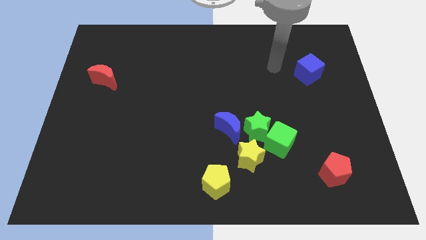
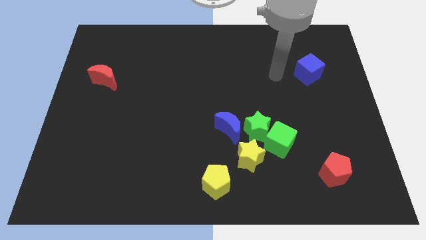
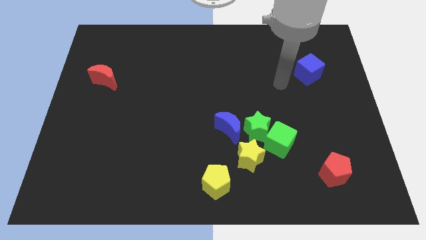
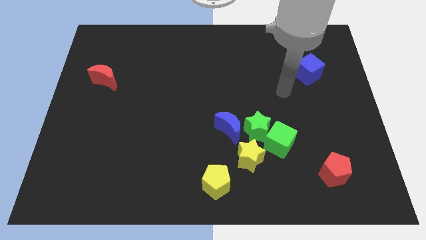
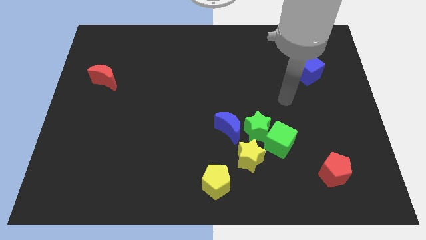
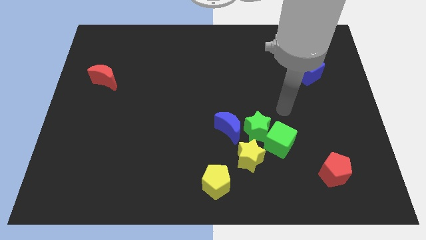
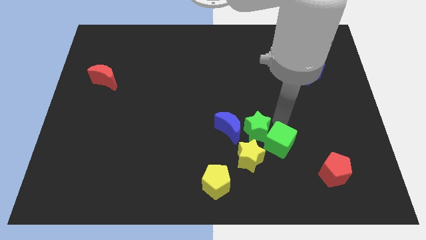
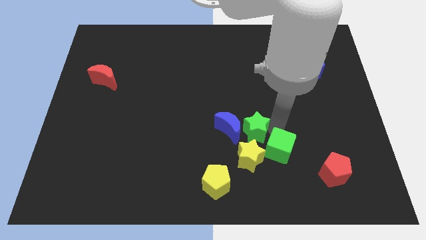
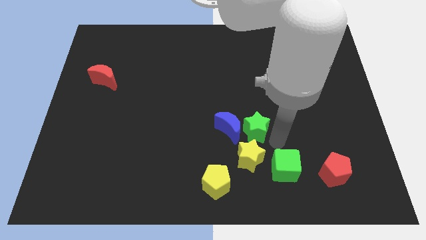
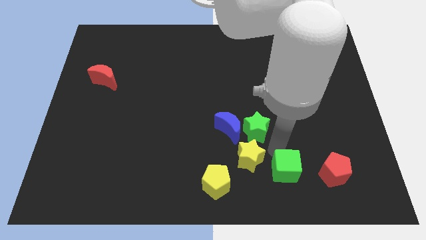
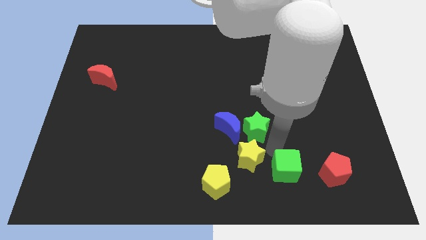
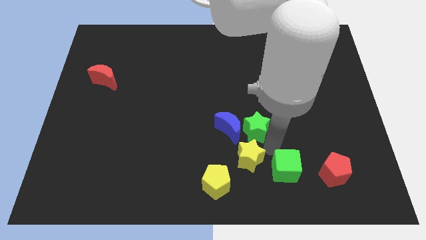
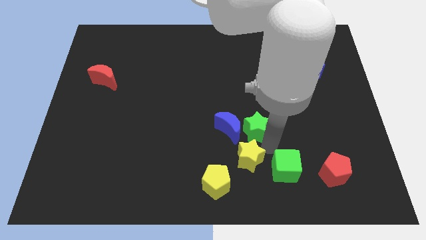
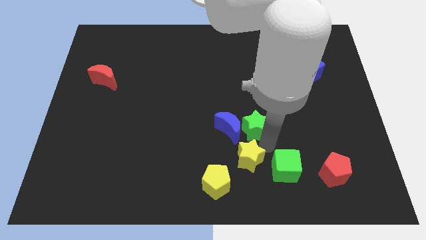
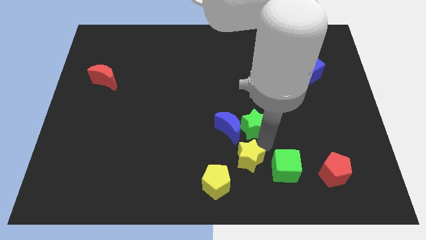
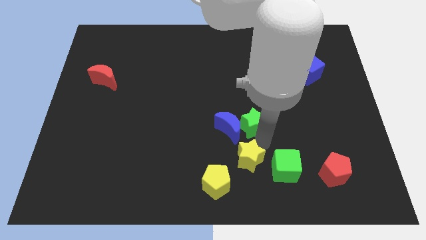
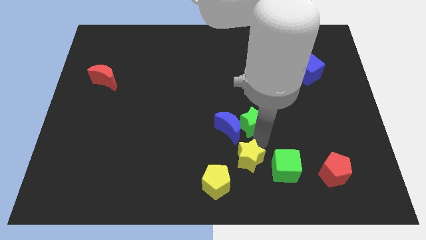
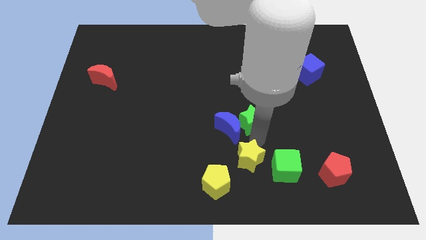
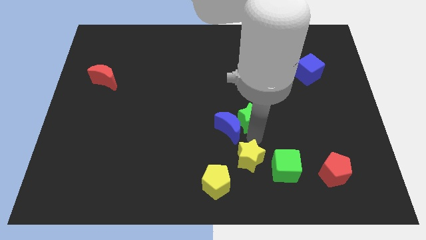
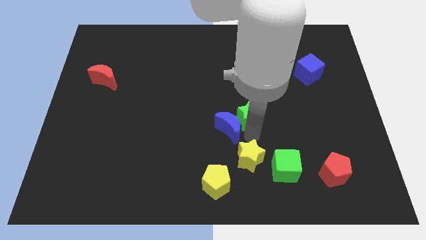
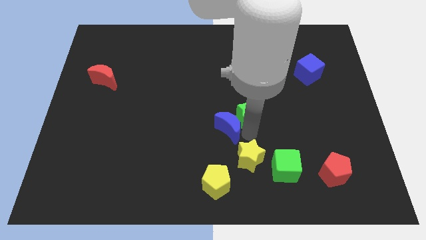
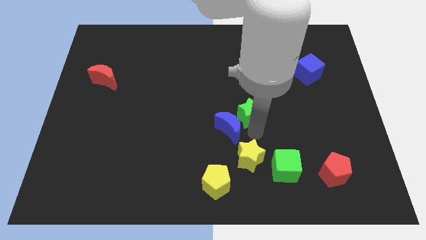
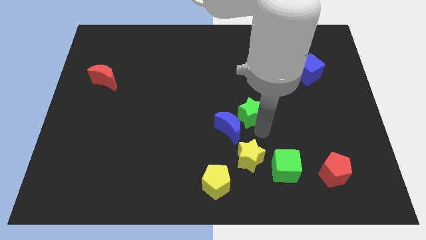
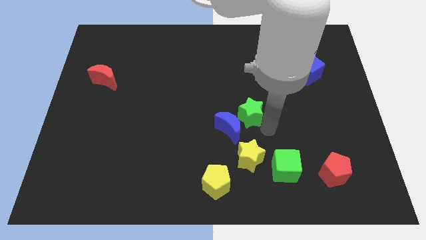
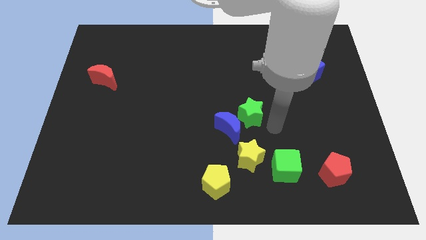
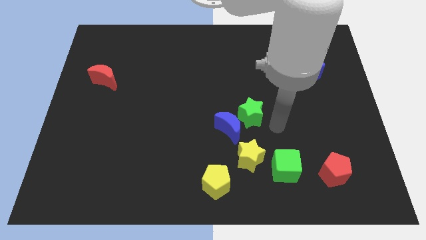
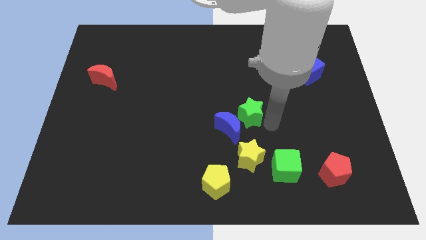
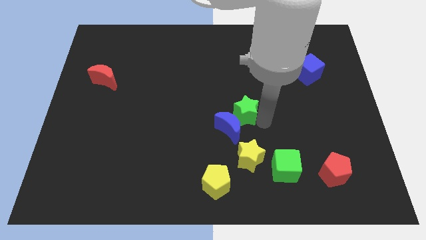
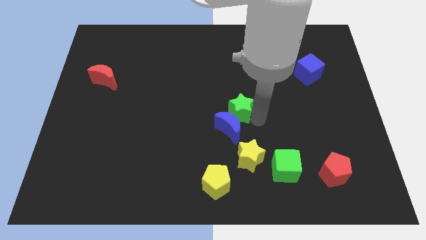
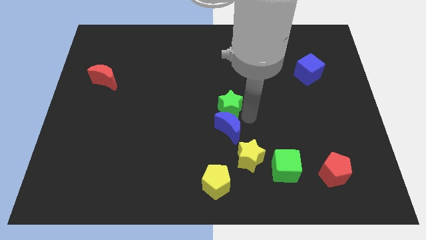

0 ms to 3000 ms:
slide the green star diagonally upwards and left a little bit

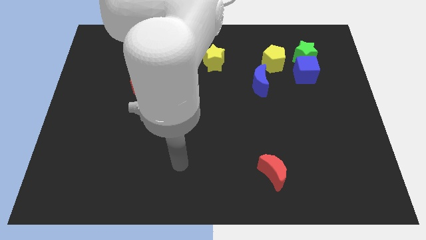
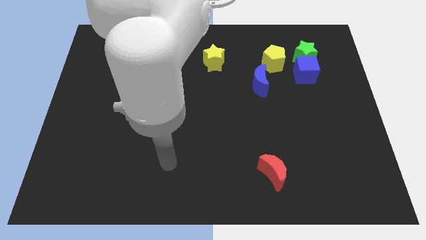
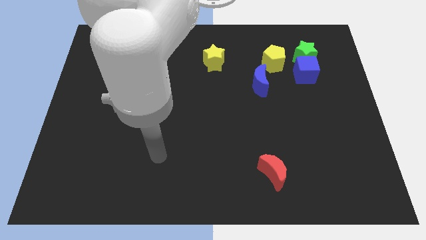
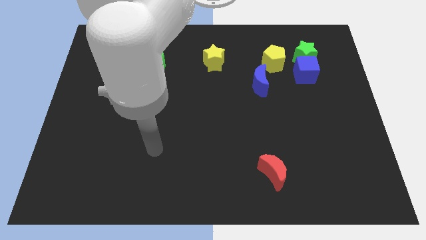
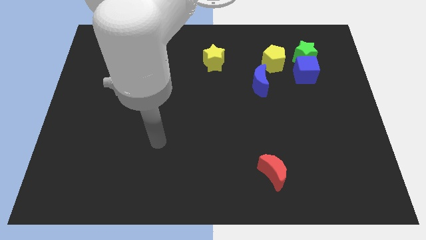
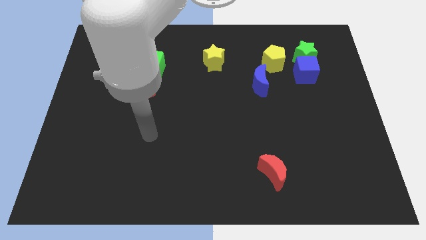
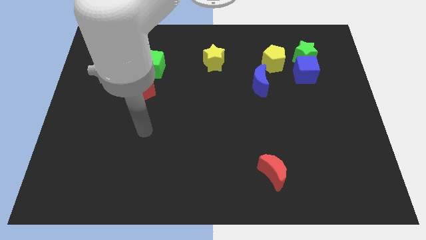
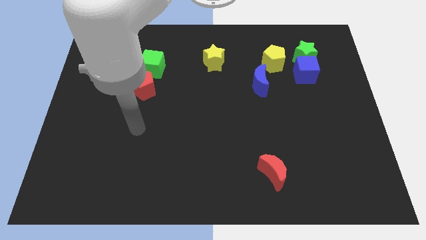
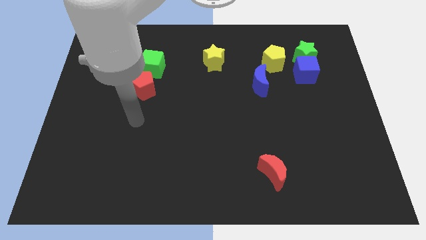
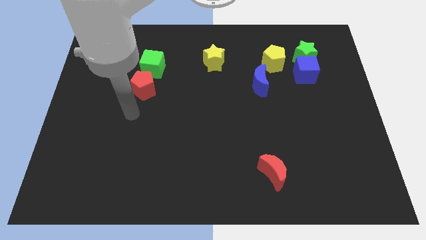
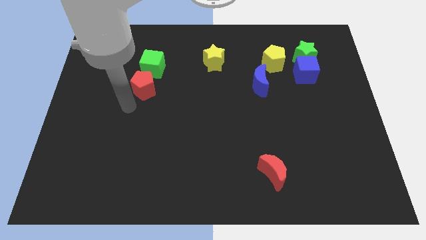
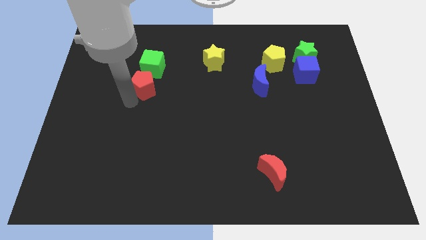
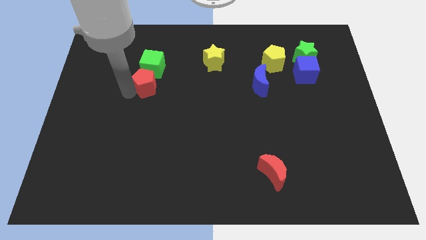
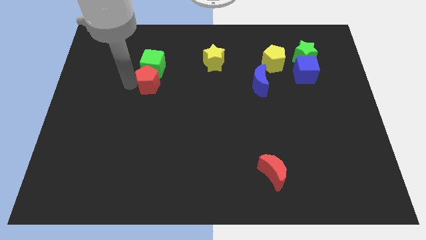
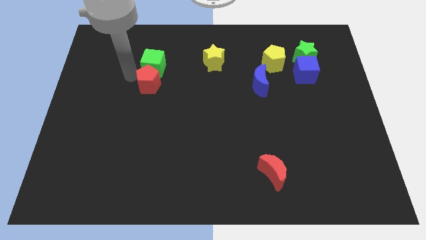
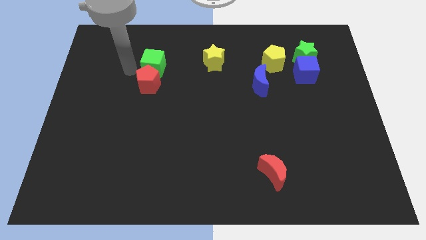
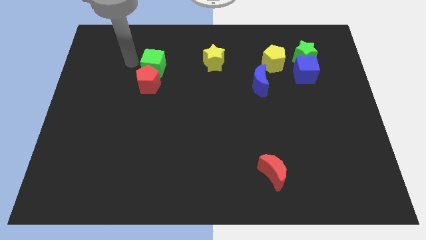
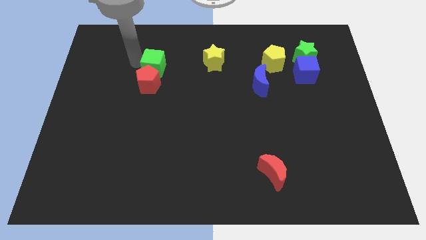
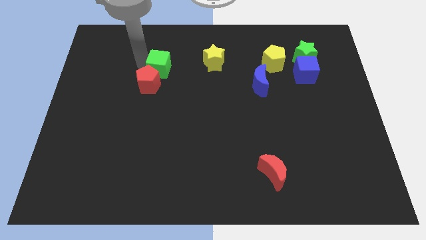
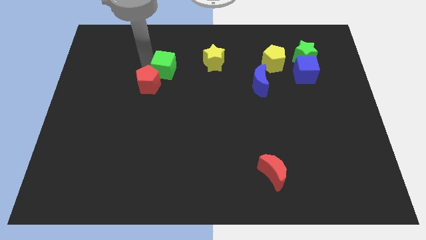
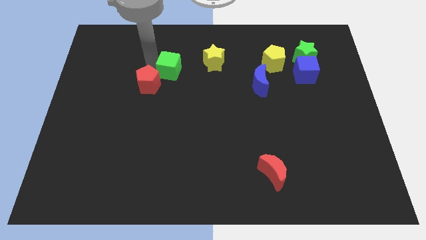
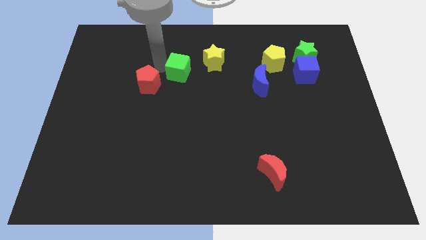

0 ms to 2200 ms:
slightly move the green cube to the right

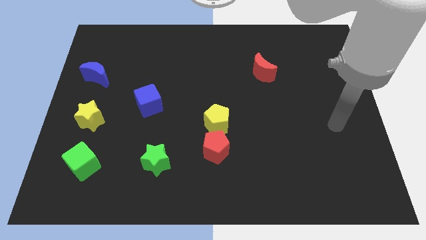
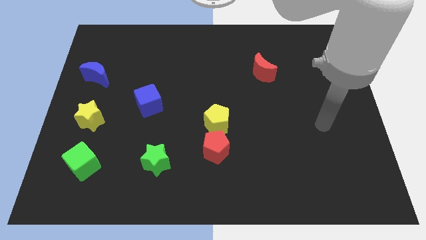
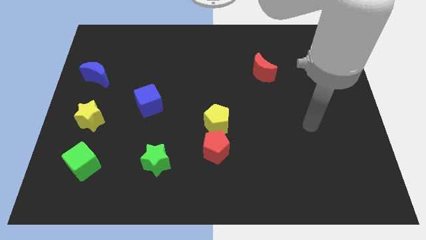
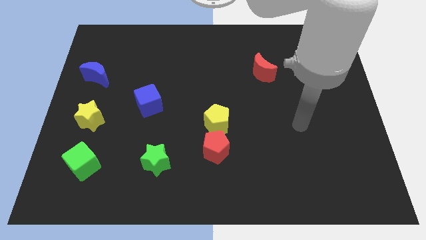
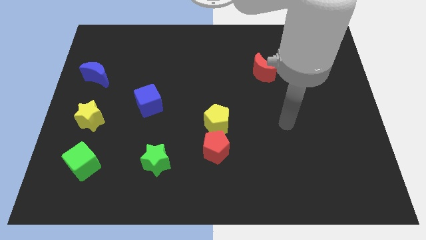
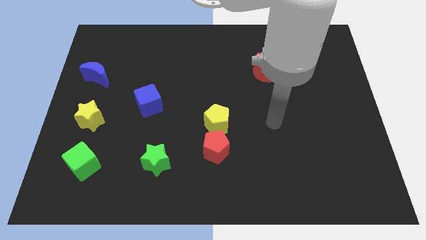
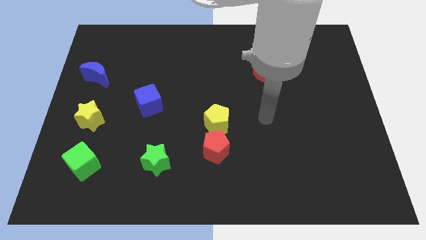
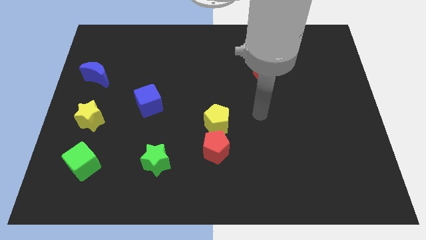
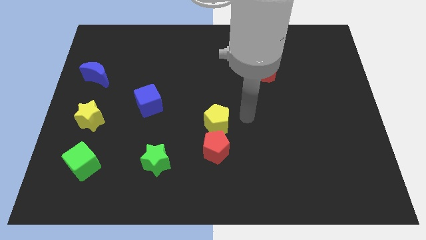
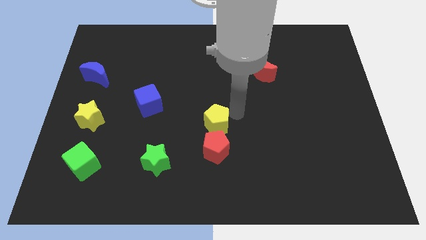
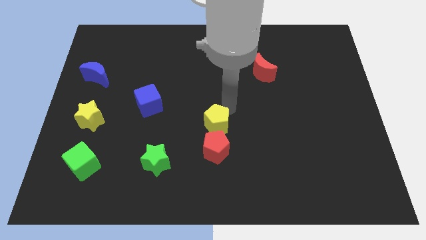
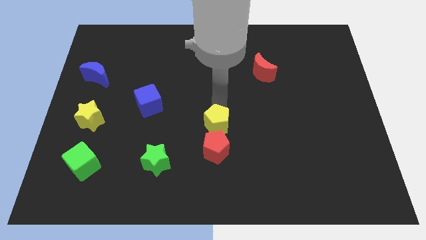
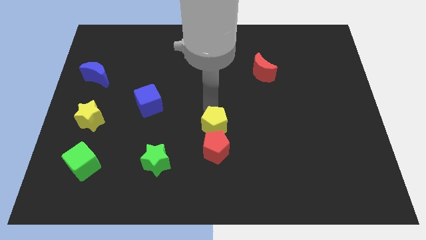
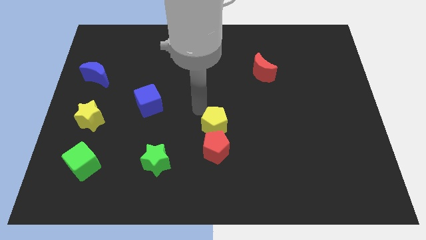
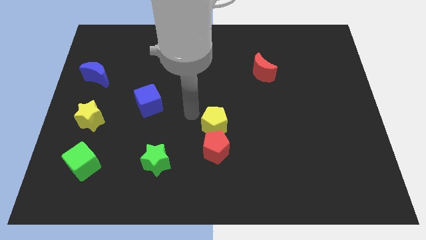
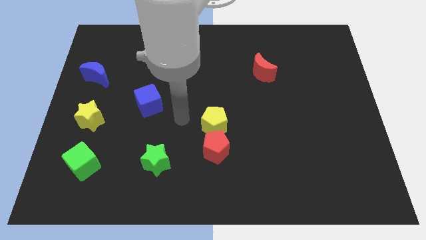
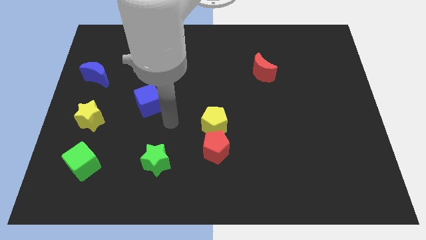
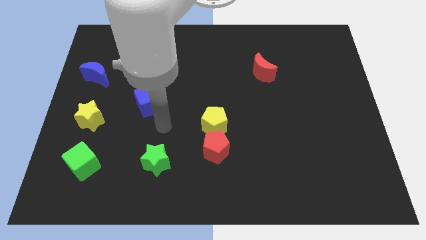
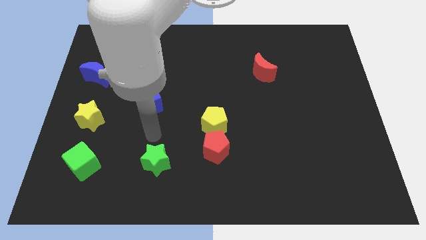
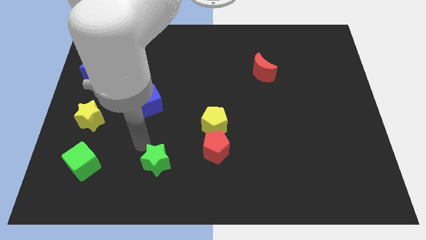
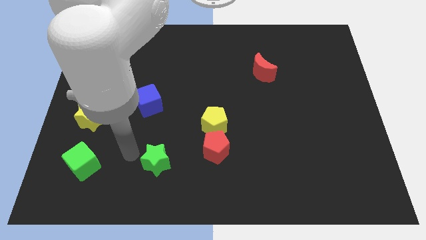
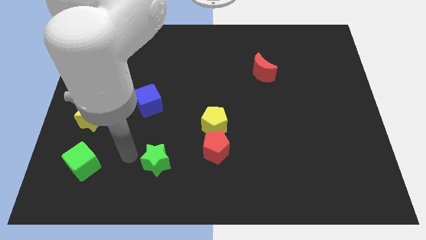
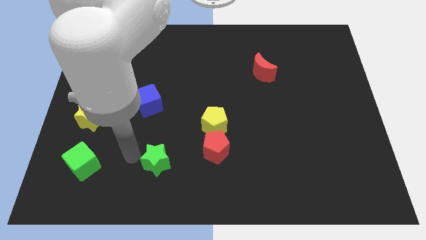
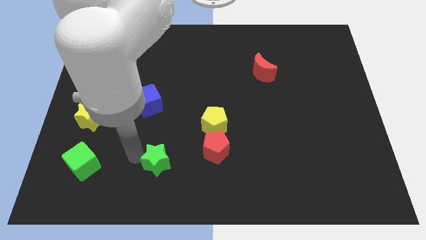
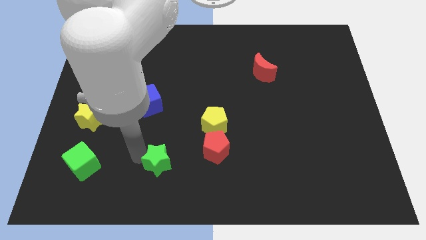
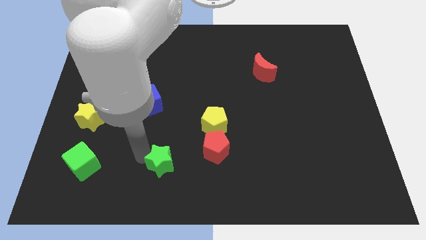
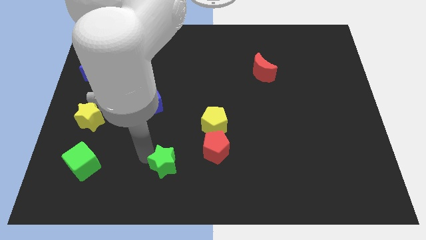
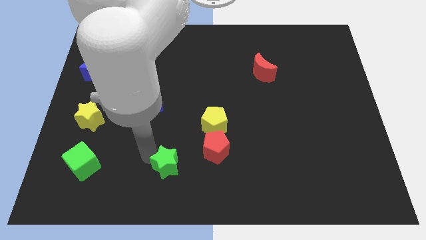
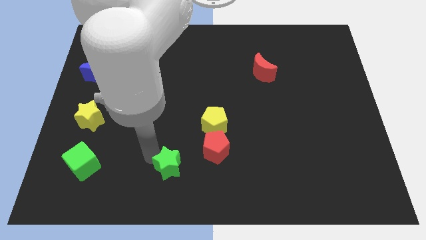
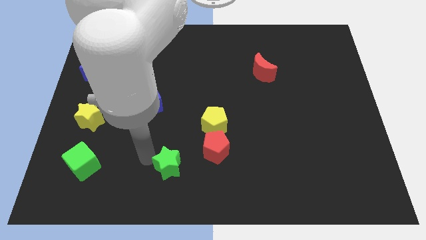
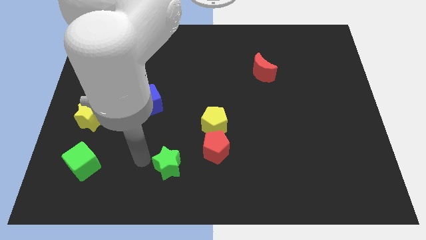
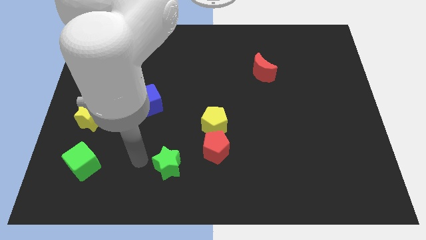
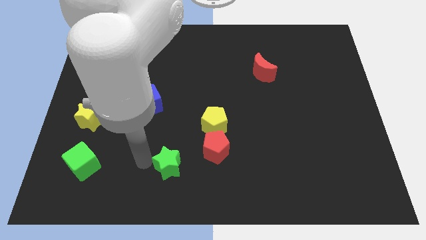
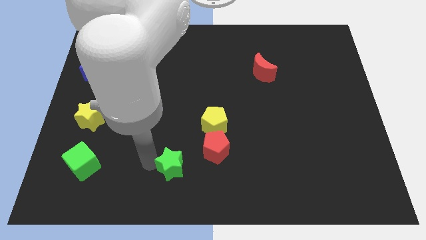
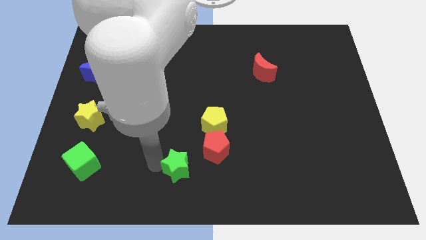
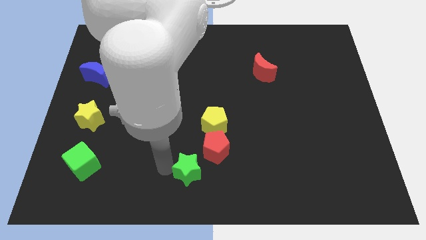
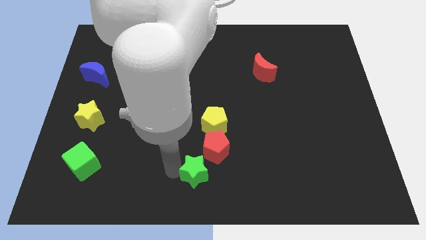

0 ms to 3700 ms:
slightly slide the green star right
